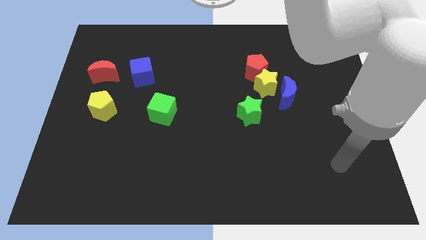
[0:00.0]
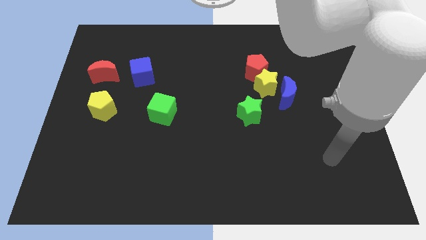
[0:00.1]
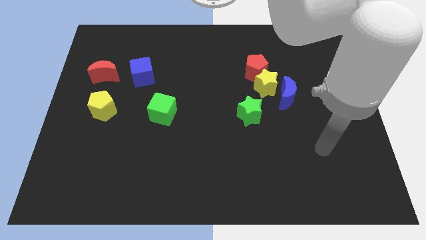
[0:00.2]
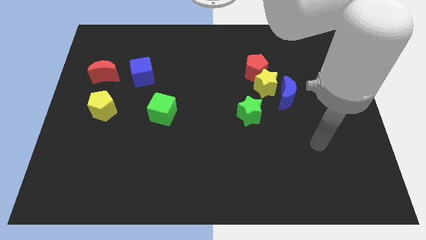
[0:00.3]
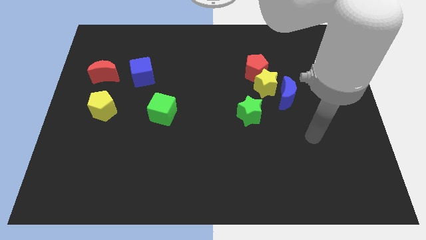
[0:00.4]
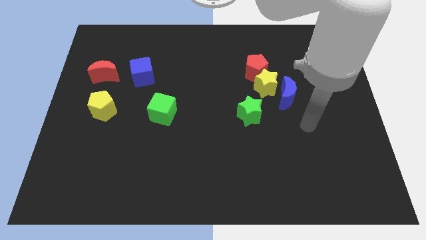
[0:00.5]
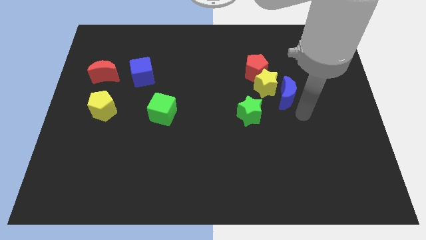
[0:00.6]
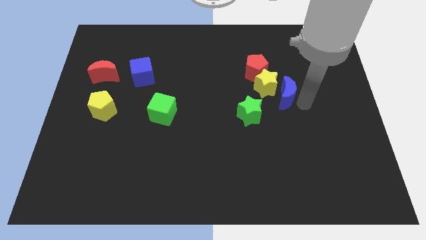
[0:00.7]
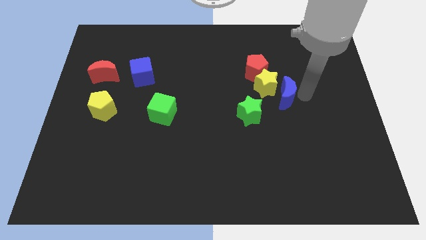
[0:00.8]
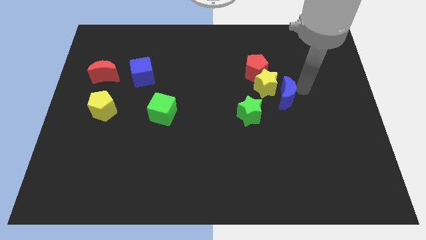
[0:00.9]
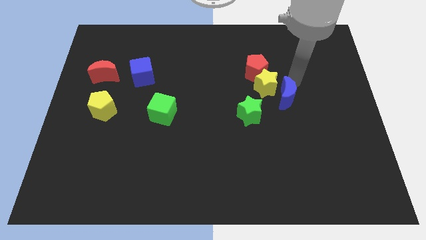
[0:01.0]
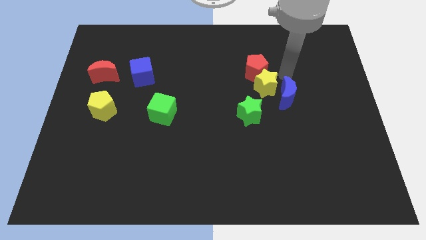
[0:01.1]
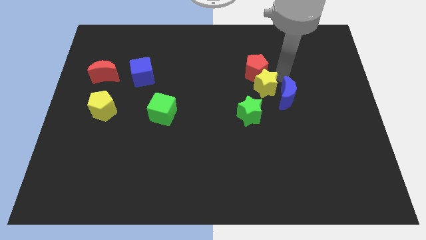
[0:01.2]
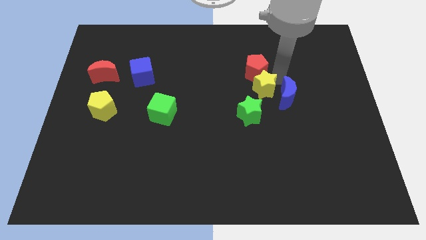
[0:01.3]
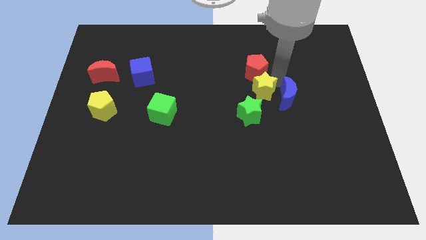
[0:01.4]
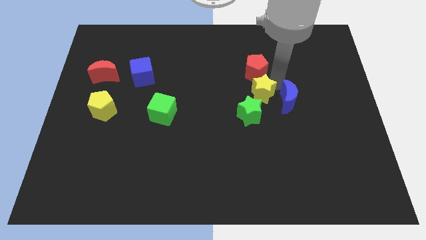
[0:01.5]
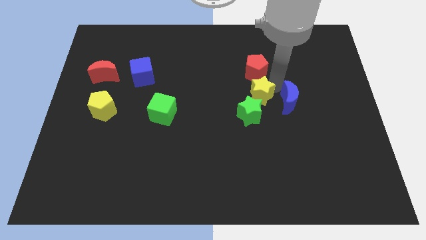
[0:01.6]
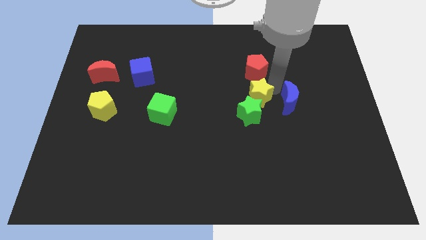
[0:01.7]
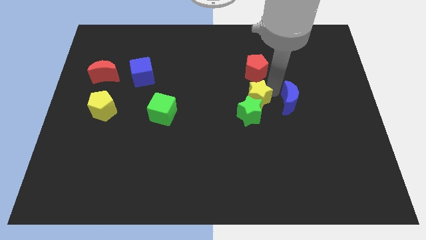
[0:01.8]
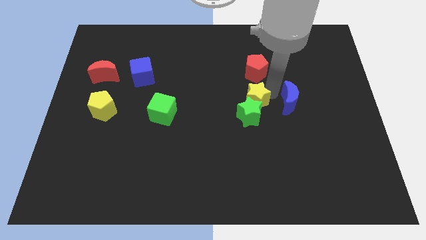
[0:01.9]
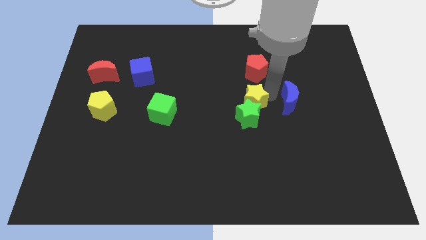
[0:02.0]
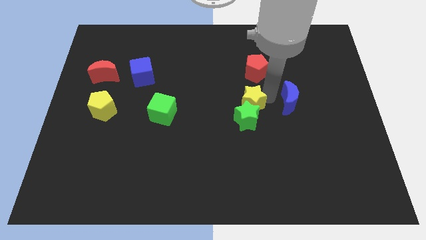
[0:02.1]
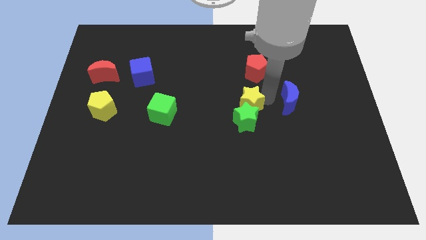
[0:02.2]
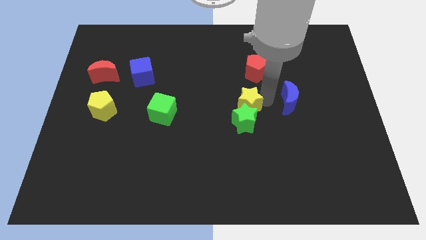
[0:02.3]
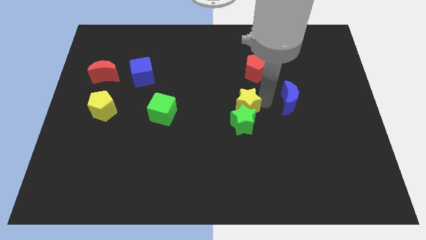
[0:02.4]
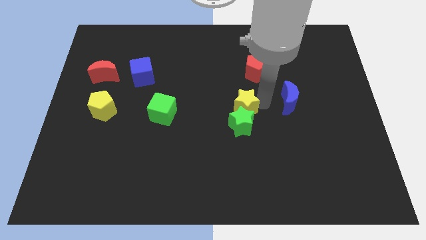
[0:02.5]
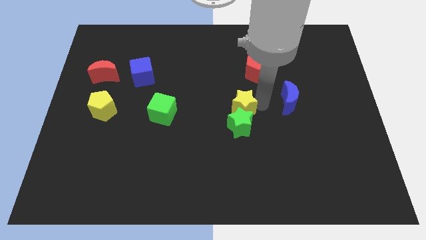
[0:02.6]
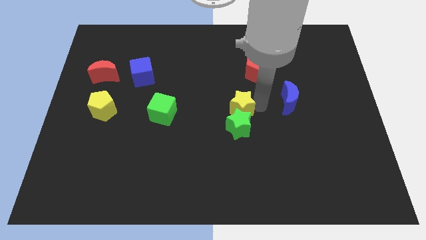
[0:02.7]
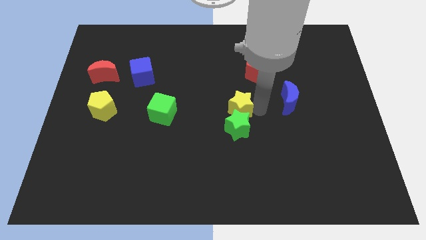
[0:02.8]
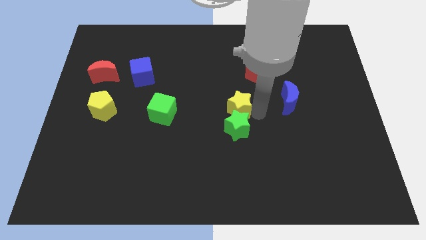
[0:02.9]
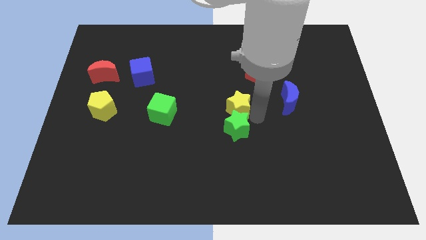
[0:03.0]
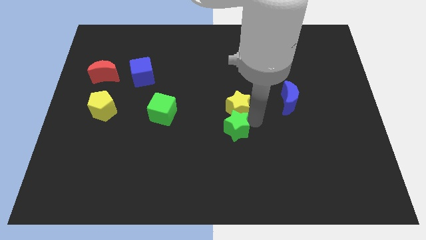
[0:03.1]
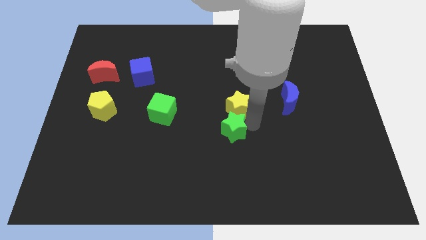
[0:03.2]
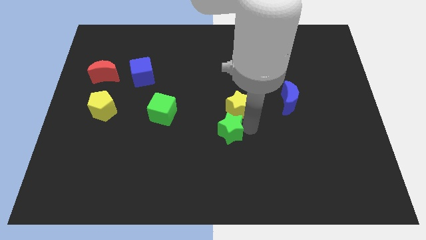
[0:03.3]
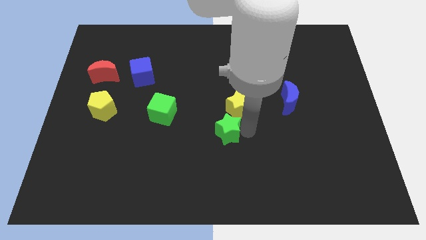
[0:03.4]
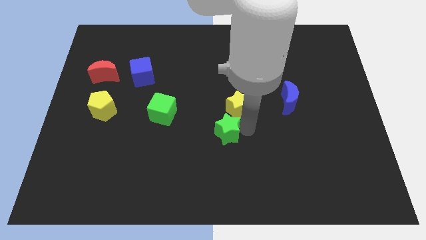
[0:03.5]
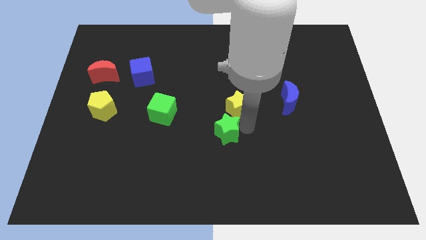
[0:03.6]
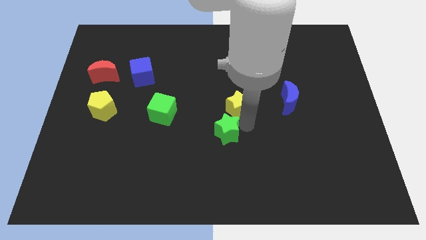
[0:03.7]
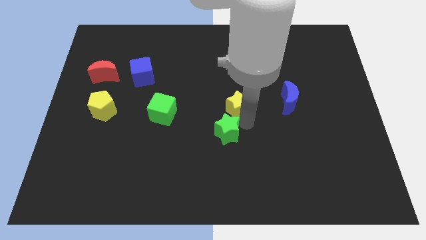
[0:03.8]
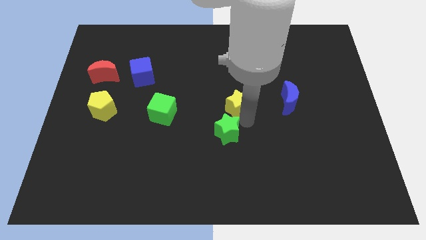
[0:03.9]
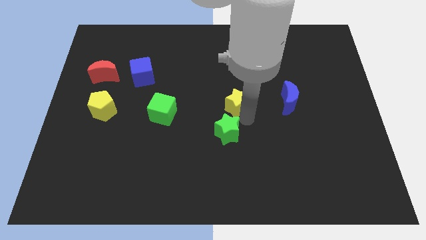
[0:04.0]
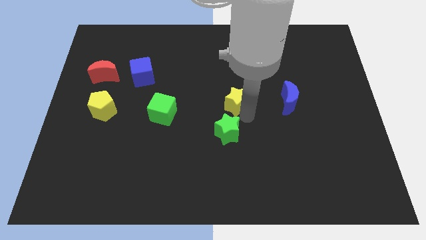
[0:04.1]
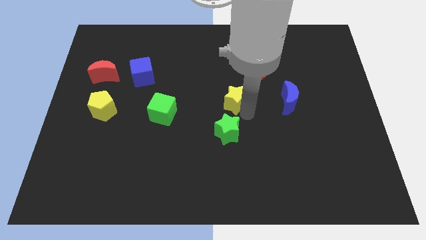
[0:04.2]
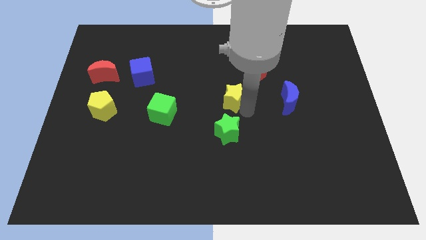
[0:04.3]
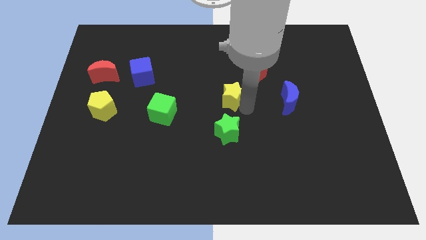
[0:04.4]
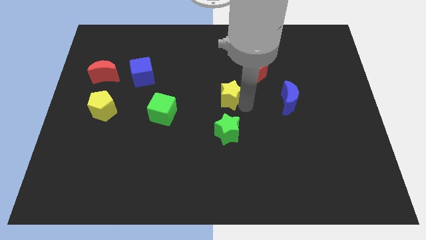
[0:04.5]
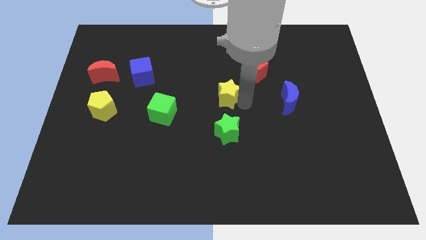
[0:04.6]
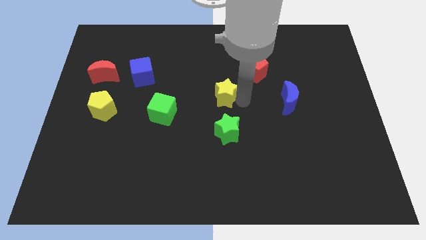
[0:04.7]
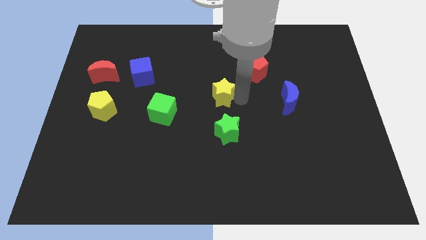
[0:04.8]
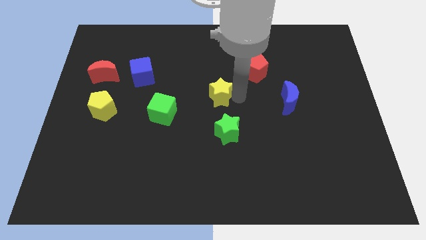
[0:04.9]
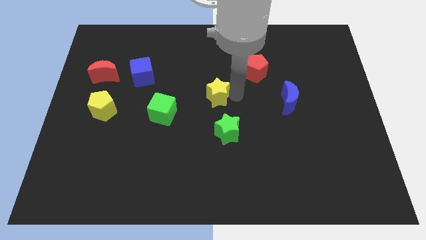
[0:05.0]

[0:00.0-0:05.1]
put the yellow star to the right side of the green cube

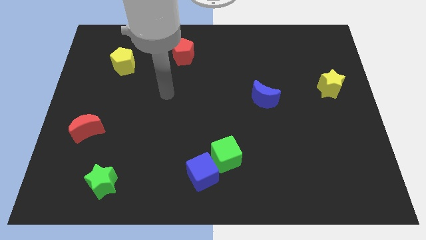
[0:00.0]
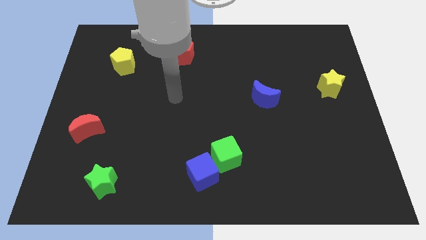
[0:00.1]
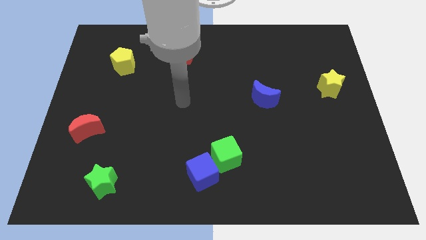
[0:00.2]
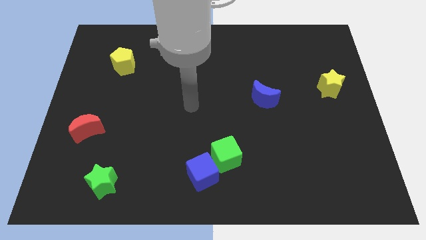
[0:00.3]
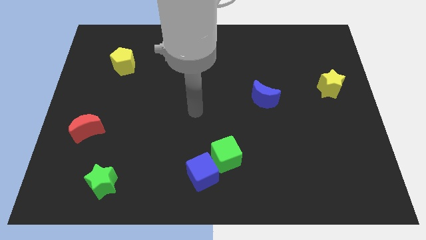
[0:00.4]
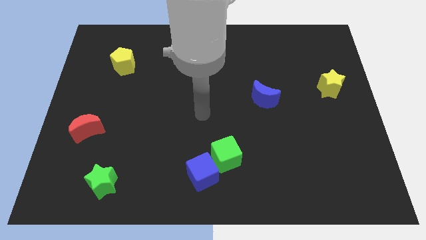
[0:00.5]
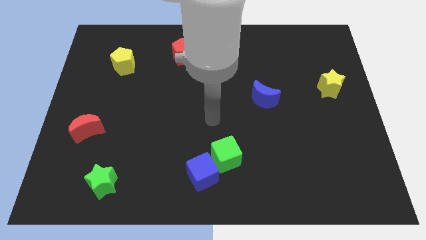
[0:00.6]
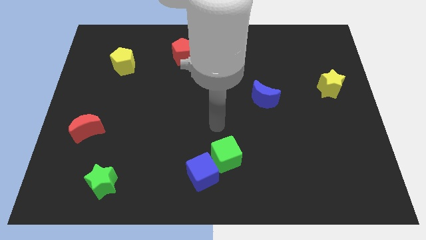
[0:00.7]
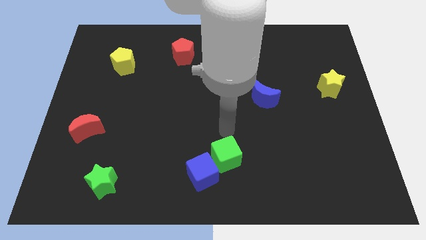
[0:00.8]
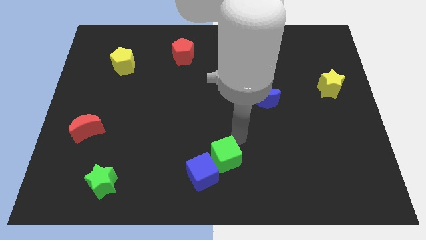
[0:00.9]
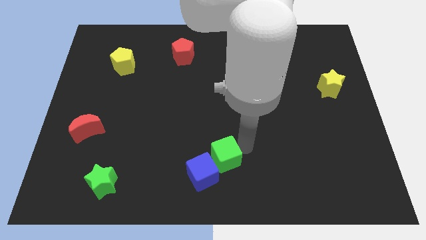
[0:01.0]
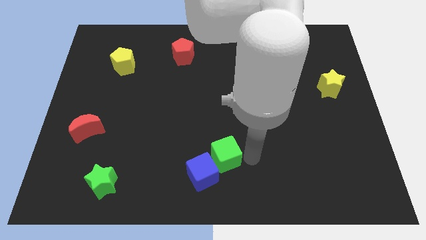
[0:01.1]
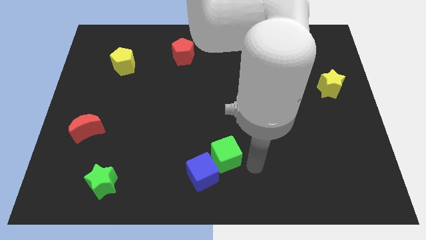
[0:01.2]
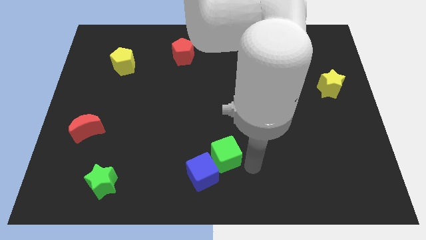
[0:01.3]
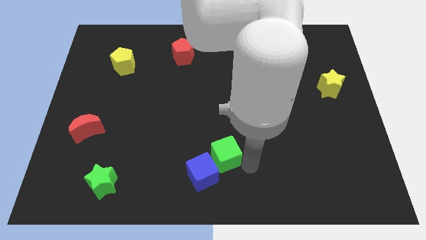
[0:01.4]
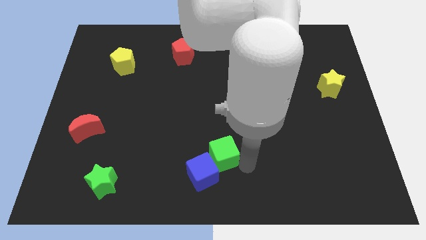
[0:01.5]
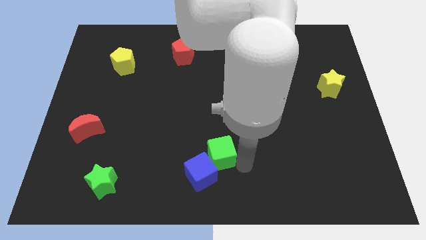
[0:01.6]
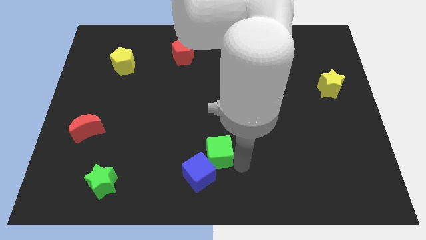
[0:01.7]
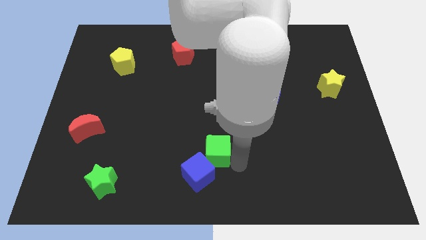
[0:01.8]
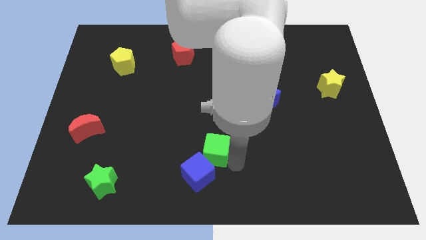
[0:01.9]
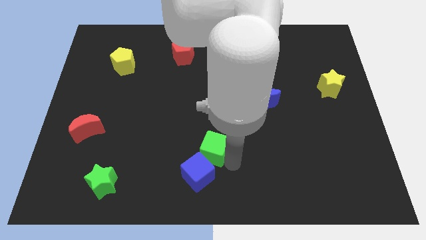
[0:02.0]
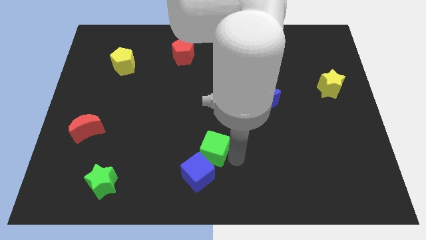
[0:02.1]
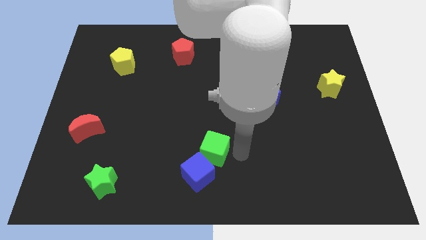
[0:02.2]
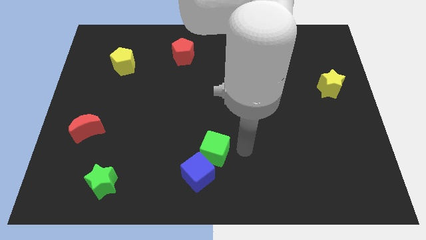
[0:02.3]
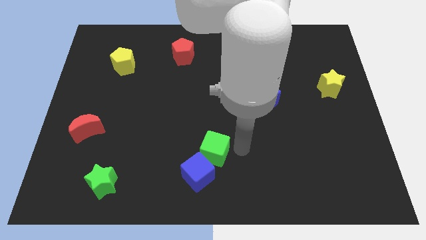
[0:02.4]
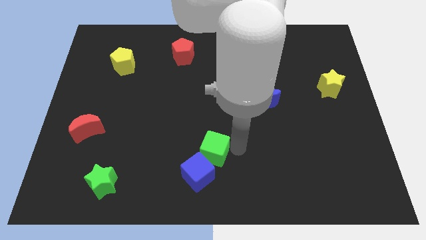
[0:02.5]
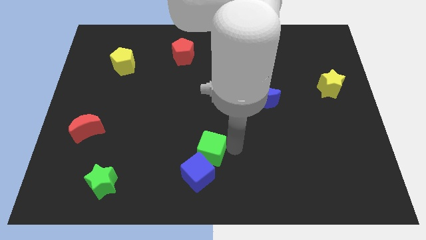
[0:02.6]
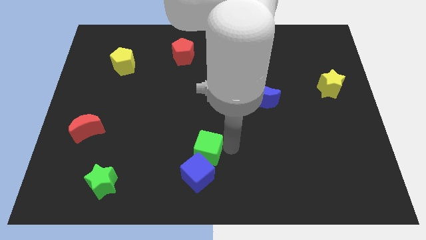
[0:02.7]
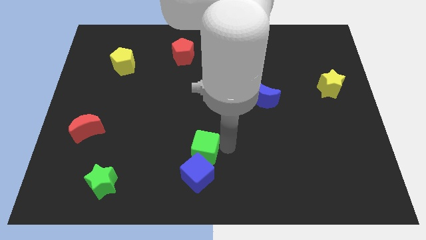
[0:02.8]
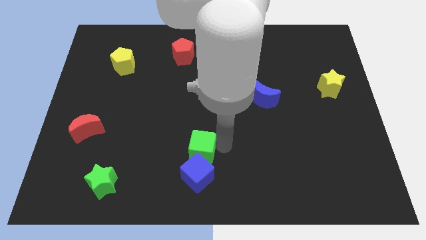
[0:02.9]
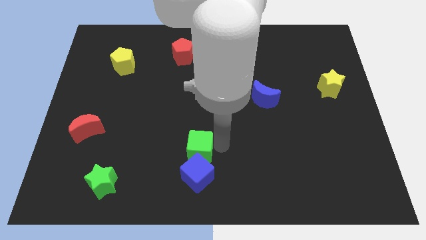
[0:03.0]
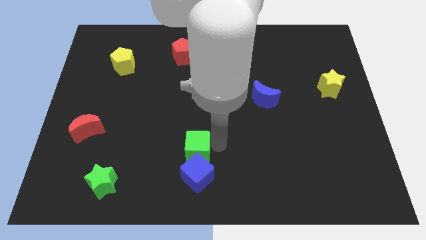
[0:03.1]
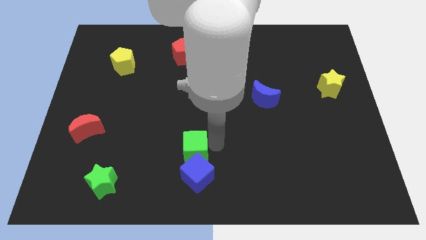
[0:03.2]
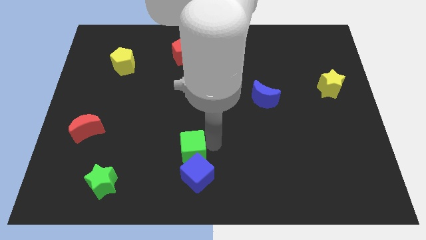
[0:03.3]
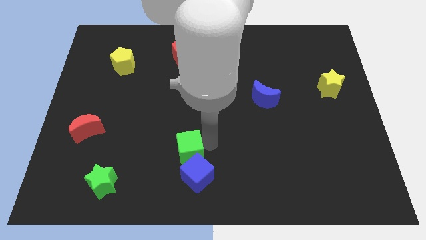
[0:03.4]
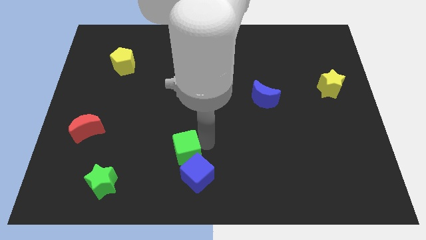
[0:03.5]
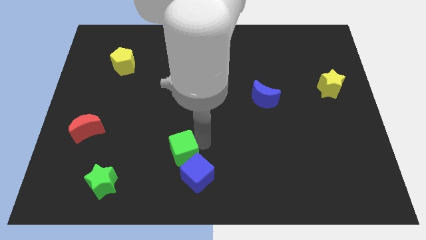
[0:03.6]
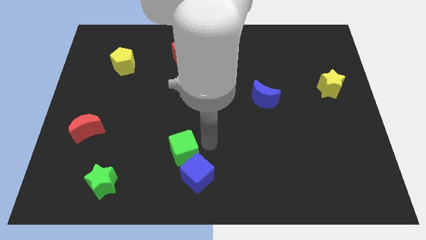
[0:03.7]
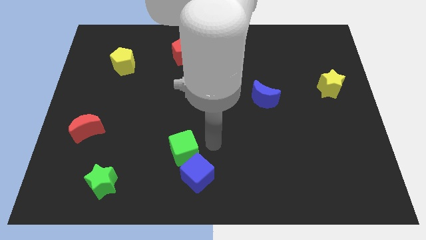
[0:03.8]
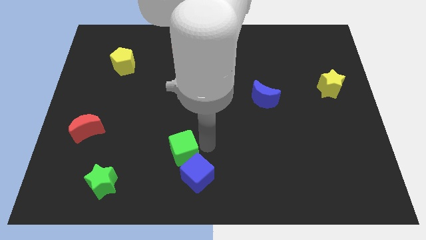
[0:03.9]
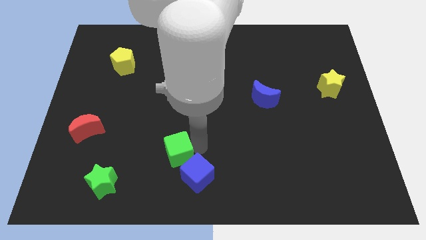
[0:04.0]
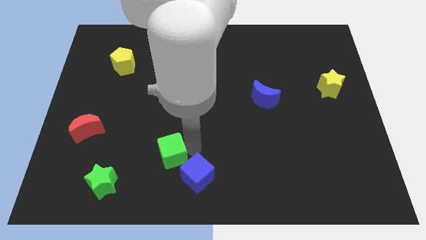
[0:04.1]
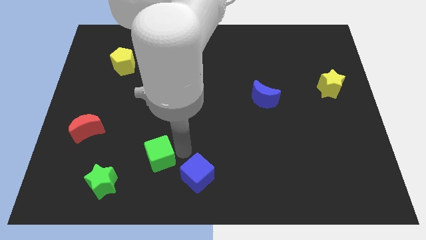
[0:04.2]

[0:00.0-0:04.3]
slide the green cube to the top right of the green star
